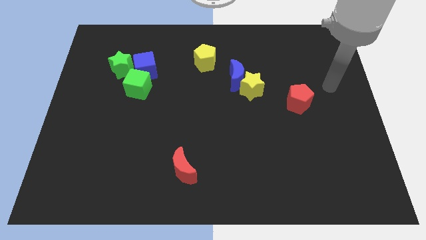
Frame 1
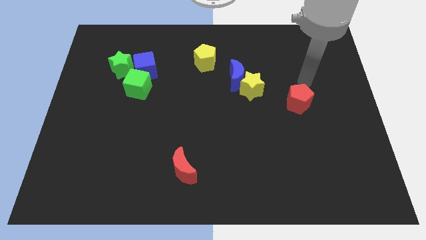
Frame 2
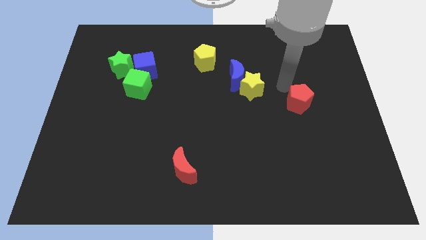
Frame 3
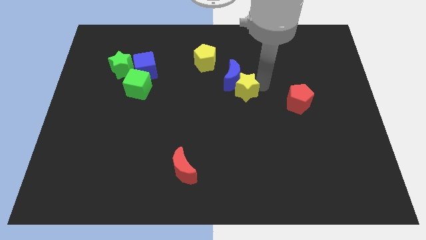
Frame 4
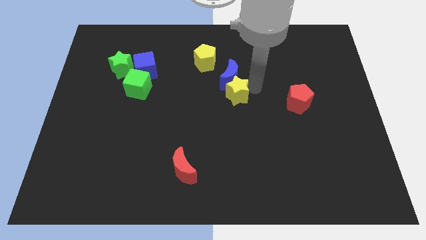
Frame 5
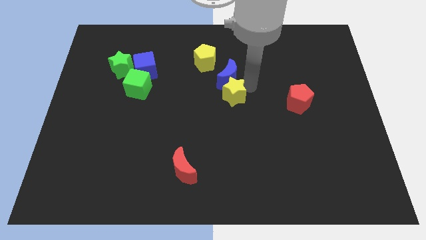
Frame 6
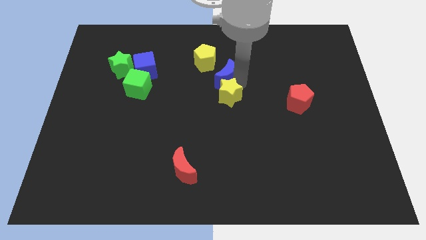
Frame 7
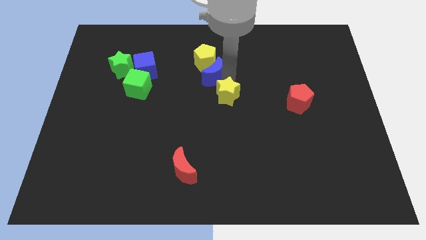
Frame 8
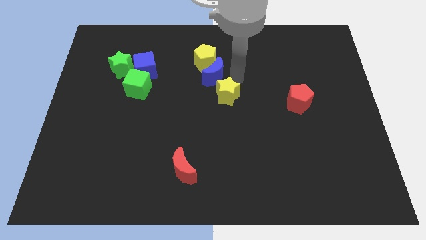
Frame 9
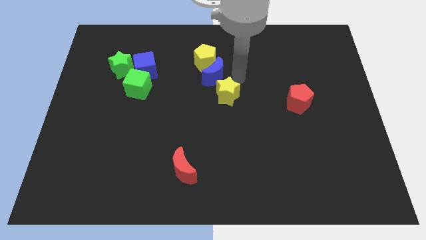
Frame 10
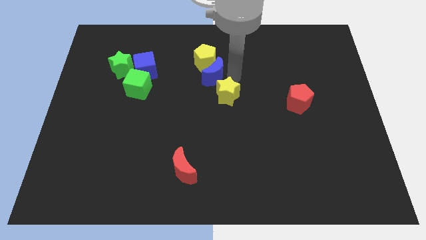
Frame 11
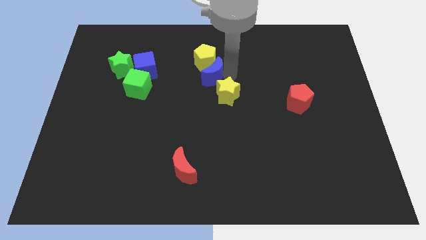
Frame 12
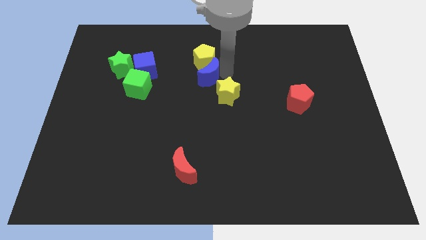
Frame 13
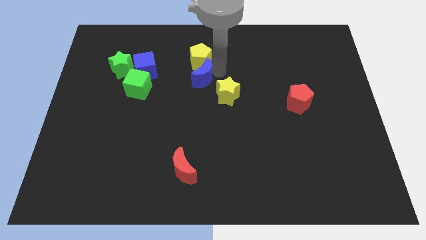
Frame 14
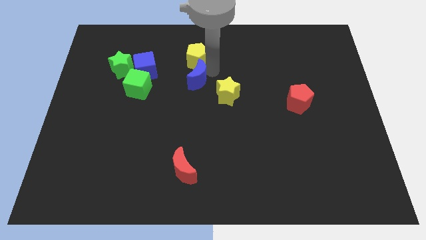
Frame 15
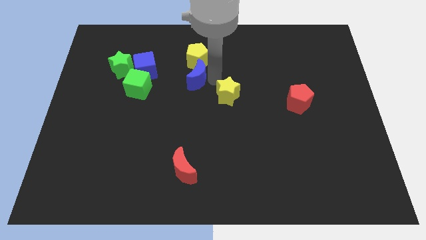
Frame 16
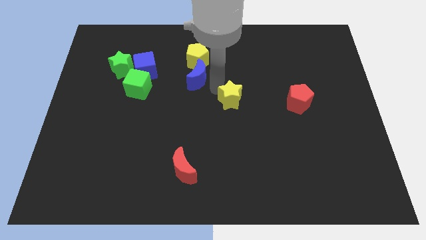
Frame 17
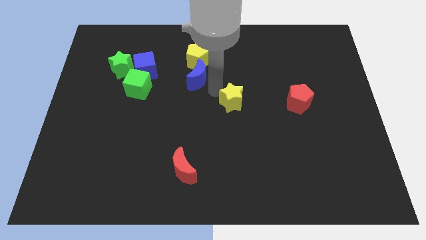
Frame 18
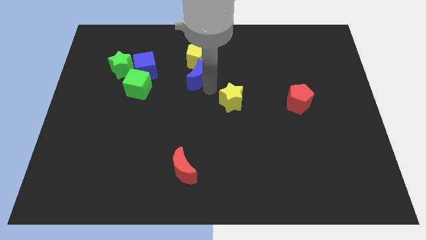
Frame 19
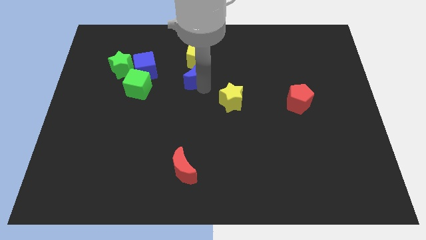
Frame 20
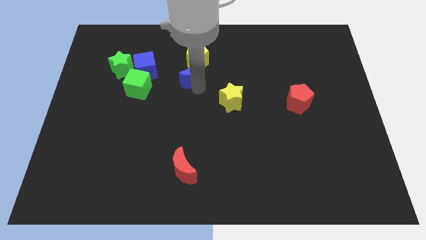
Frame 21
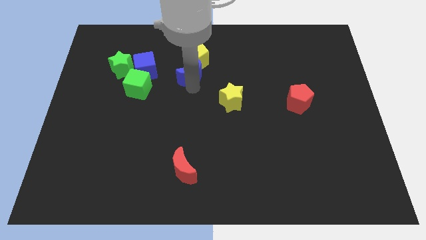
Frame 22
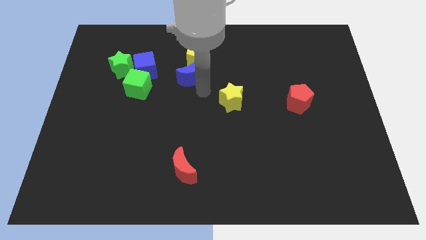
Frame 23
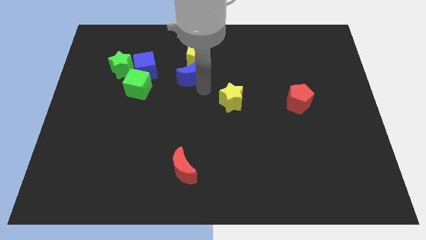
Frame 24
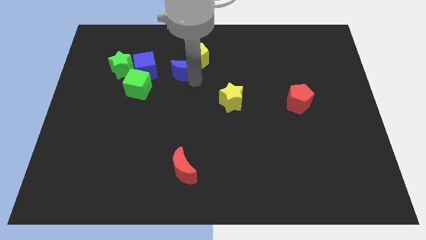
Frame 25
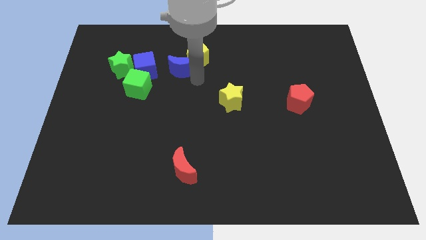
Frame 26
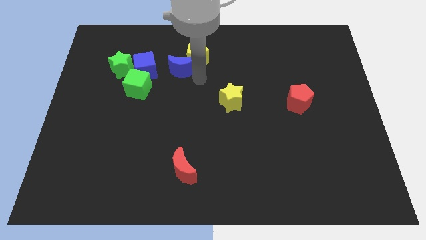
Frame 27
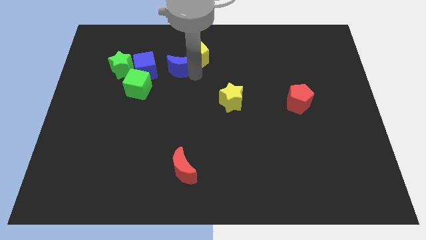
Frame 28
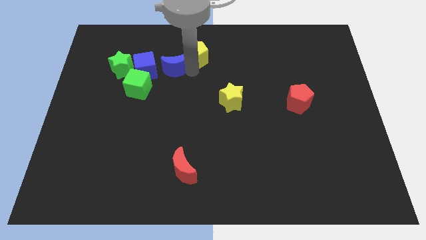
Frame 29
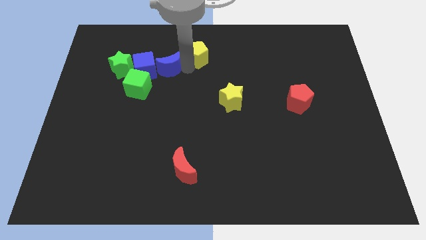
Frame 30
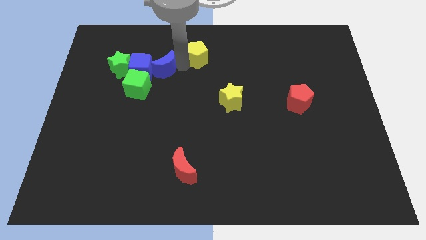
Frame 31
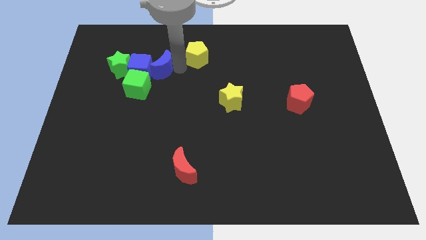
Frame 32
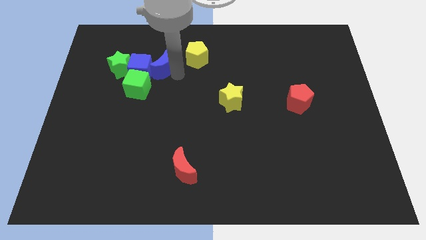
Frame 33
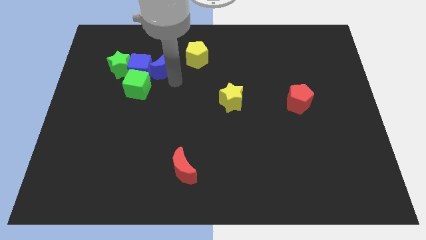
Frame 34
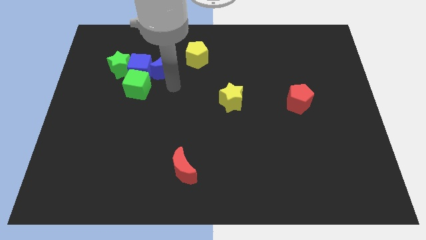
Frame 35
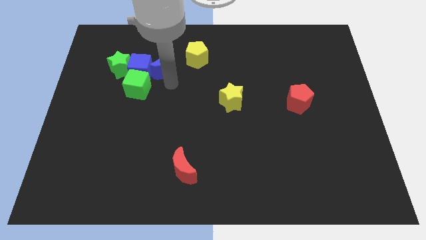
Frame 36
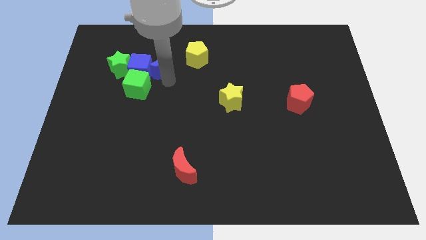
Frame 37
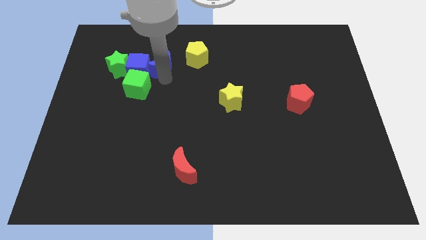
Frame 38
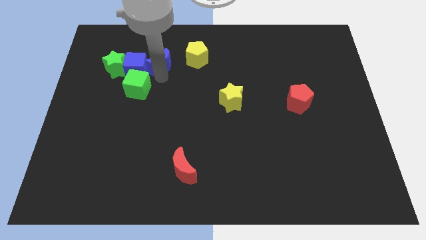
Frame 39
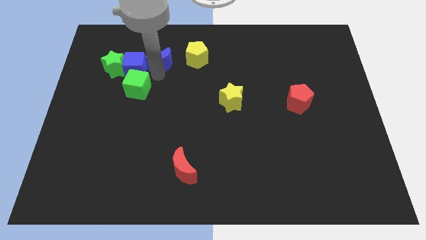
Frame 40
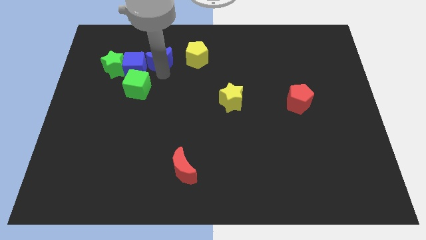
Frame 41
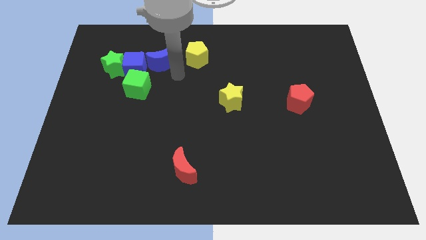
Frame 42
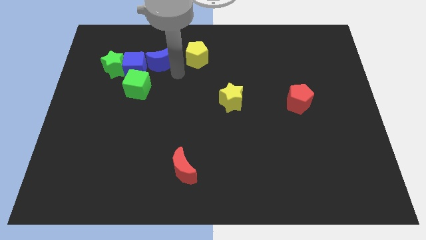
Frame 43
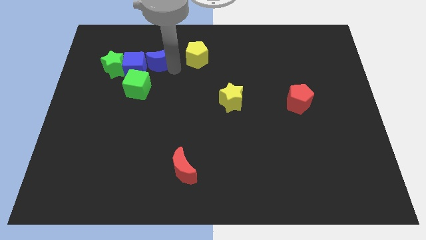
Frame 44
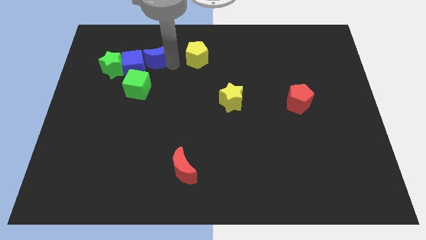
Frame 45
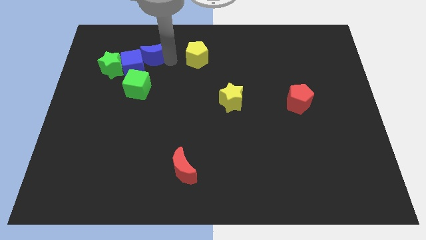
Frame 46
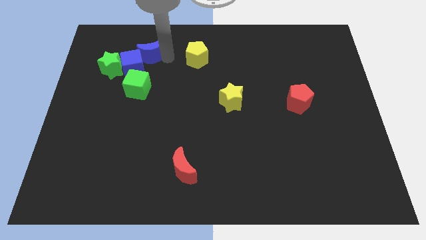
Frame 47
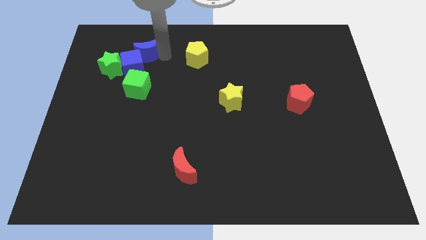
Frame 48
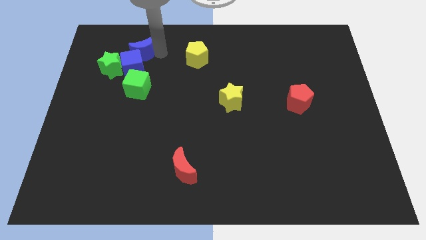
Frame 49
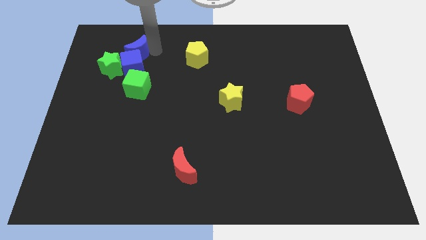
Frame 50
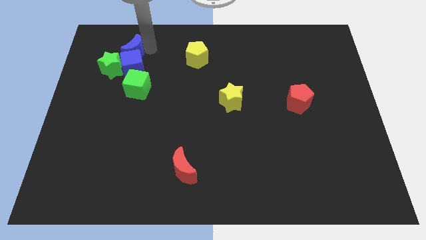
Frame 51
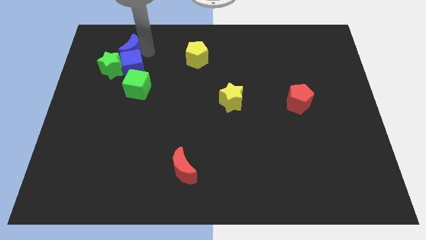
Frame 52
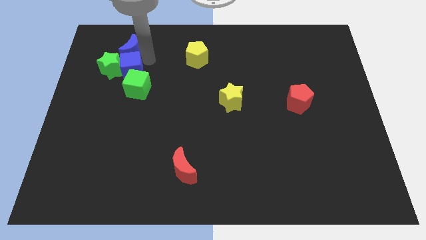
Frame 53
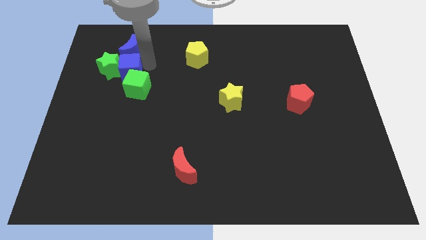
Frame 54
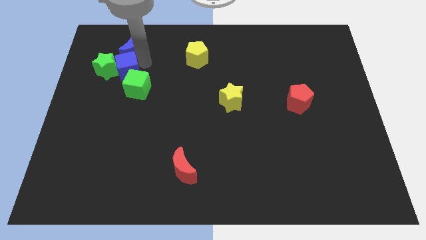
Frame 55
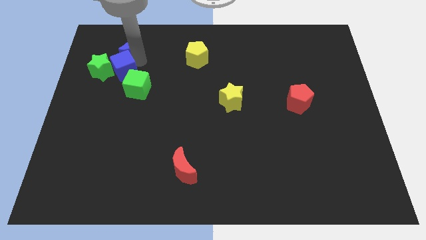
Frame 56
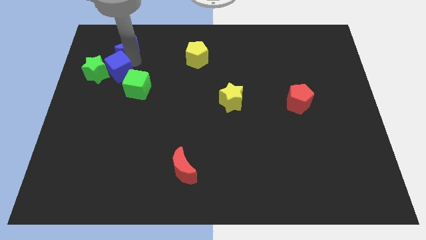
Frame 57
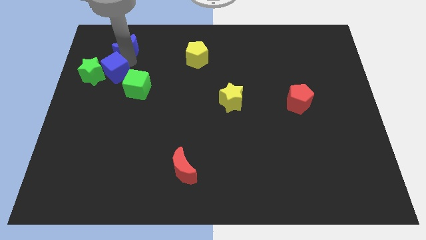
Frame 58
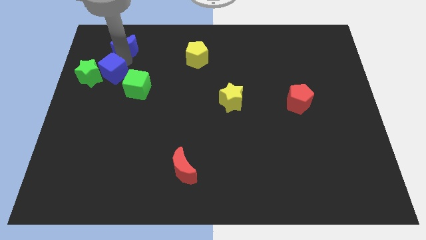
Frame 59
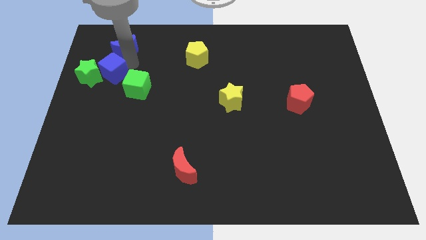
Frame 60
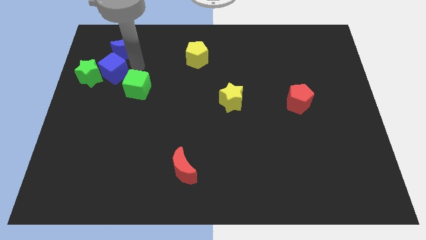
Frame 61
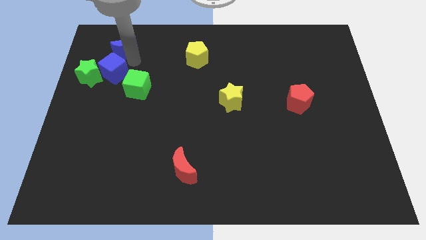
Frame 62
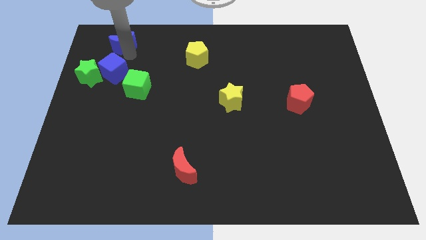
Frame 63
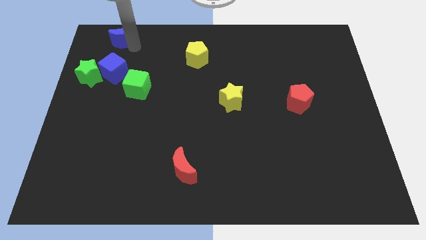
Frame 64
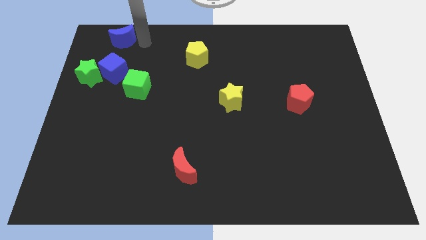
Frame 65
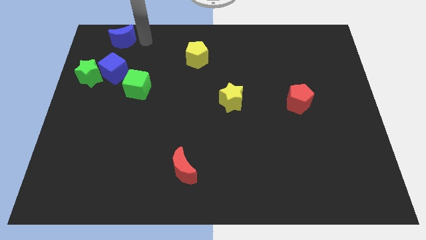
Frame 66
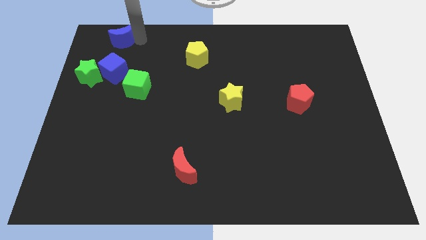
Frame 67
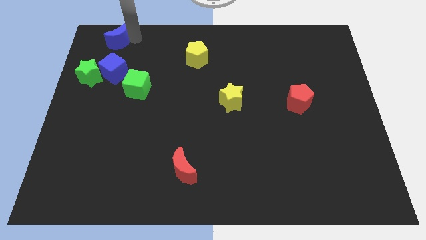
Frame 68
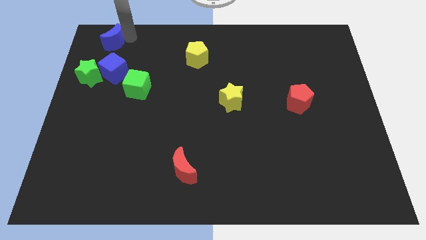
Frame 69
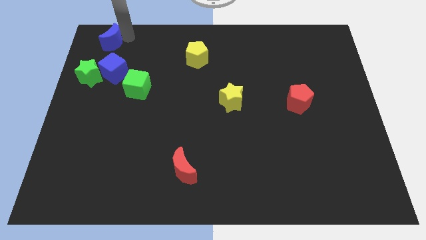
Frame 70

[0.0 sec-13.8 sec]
slide the blue moon to the top left of the board
